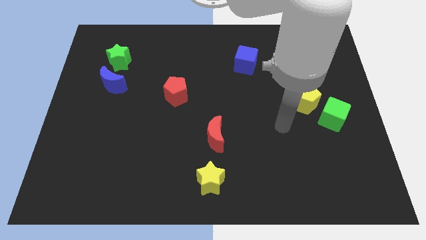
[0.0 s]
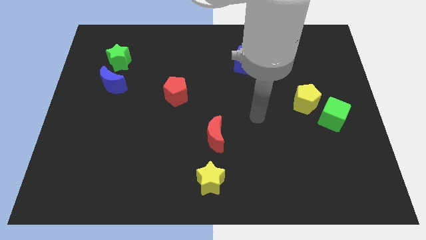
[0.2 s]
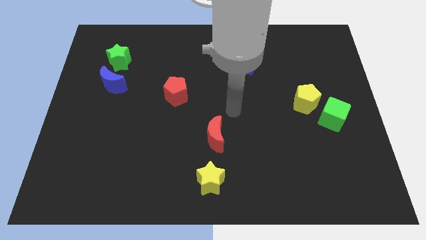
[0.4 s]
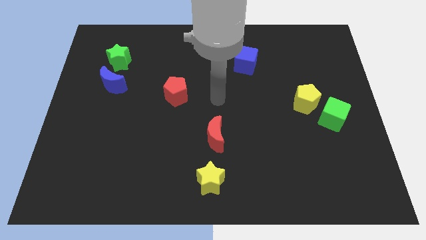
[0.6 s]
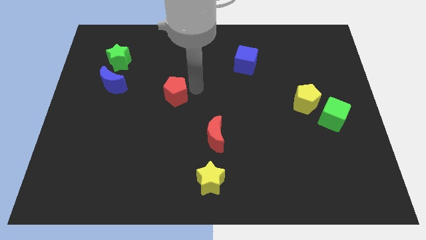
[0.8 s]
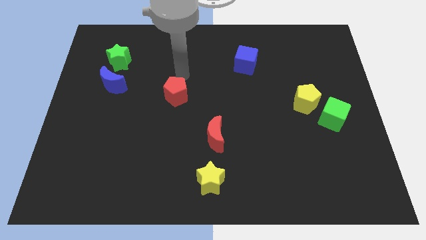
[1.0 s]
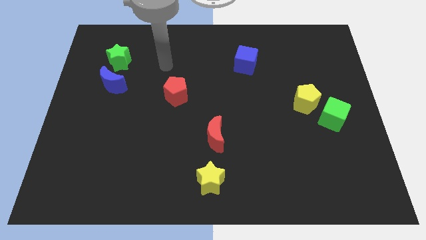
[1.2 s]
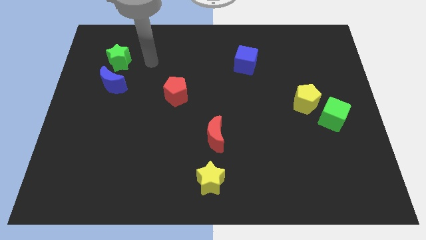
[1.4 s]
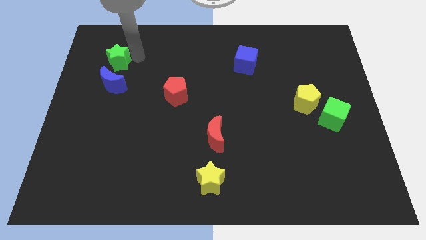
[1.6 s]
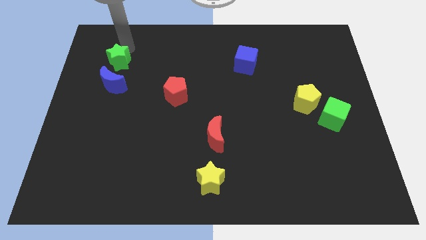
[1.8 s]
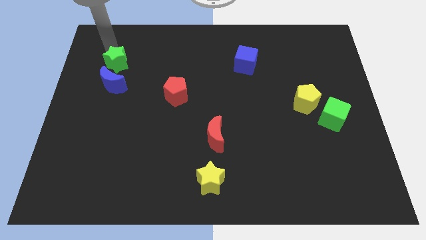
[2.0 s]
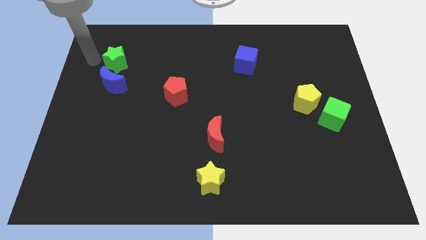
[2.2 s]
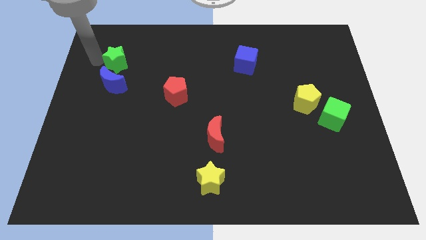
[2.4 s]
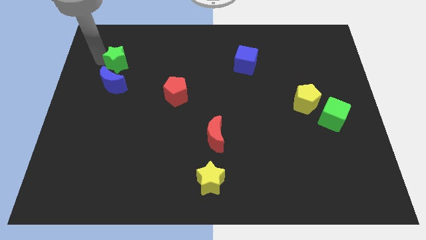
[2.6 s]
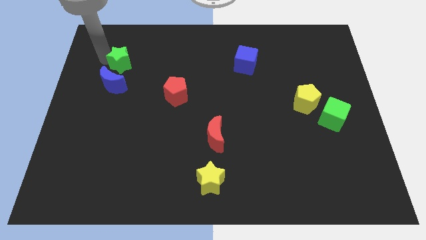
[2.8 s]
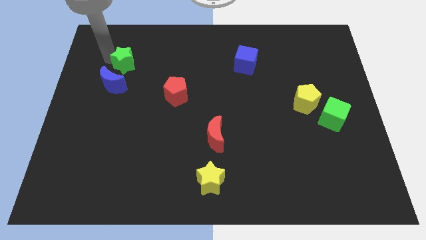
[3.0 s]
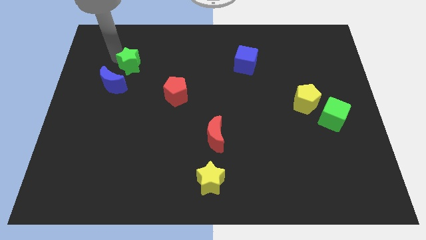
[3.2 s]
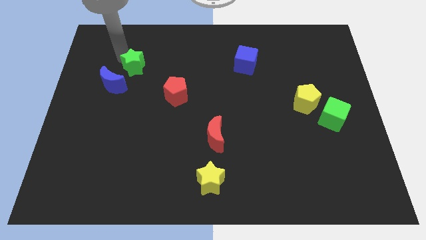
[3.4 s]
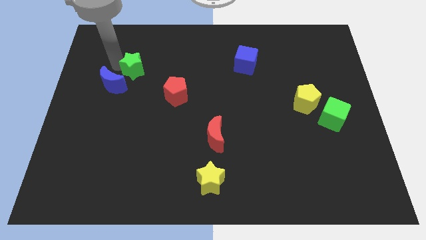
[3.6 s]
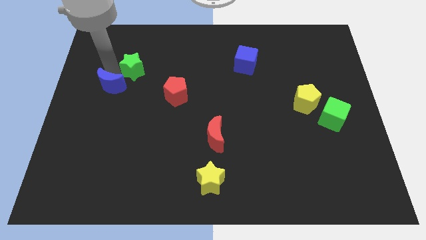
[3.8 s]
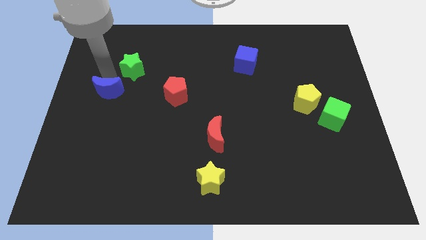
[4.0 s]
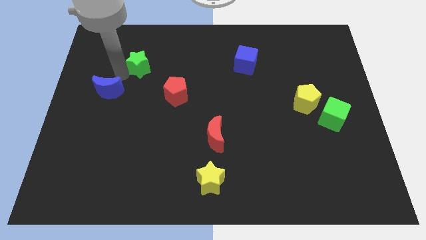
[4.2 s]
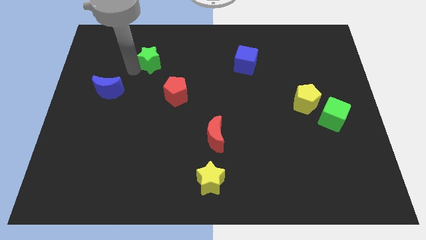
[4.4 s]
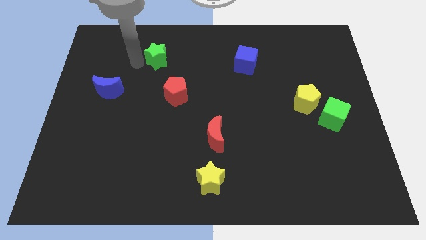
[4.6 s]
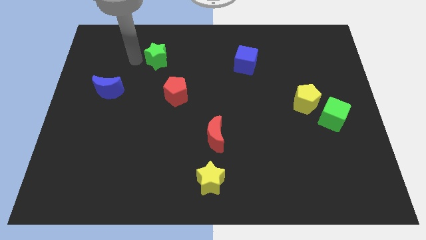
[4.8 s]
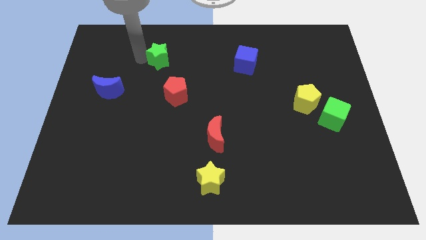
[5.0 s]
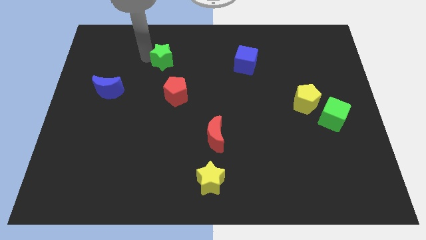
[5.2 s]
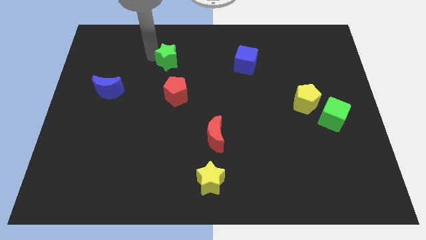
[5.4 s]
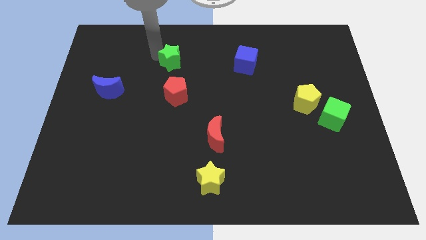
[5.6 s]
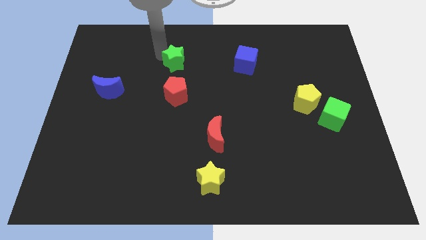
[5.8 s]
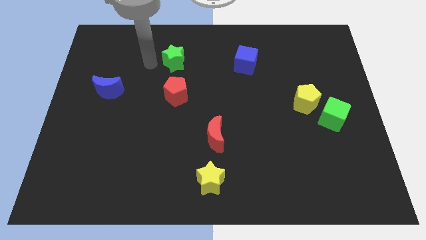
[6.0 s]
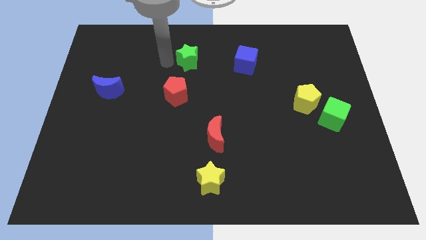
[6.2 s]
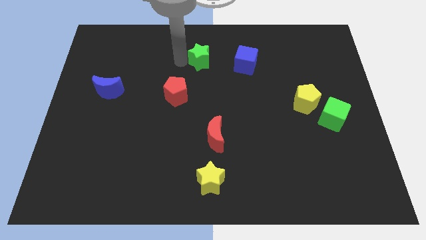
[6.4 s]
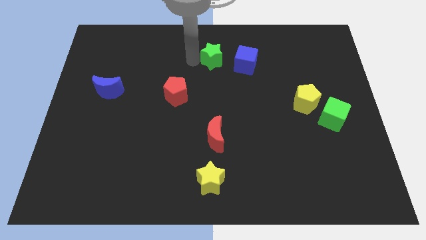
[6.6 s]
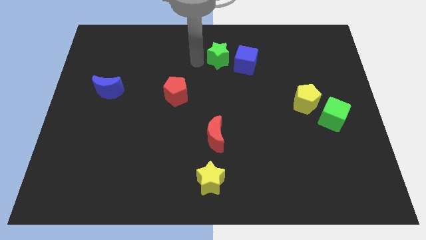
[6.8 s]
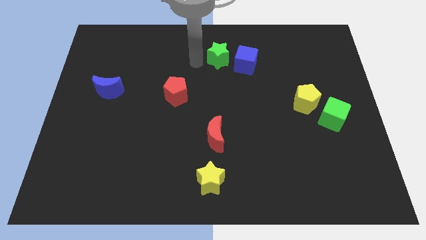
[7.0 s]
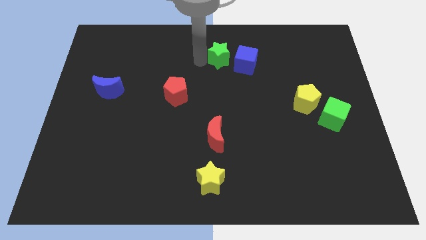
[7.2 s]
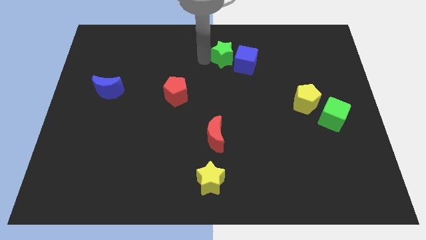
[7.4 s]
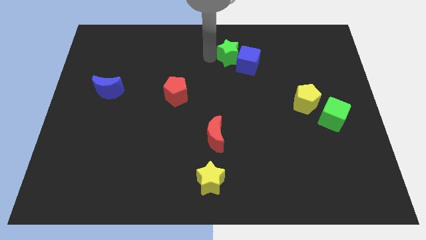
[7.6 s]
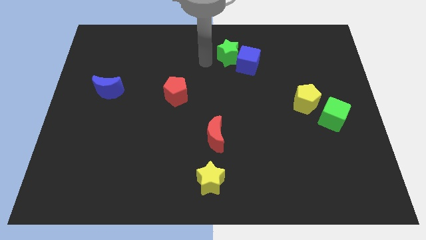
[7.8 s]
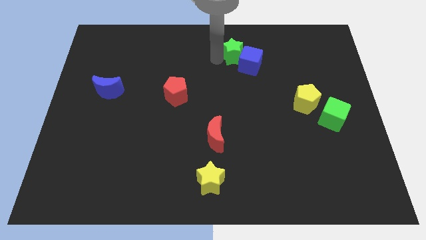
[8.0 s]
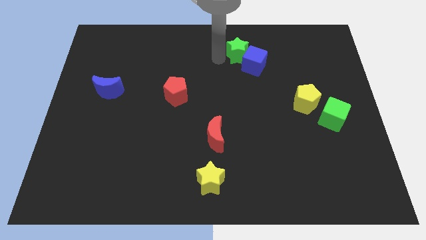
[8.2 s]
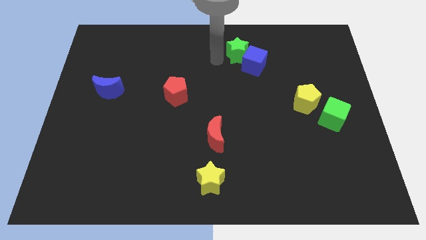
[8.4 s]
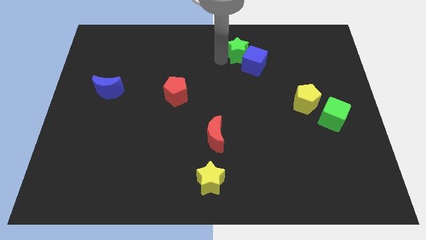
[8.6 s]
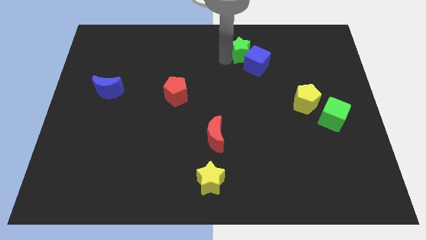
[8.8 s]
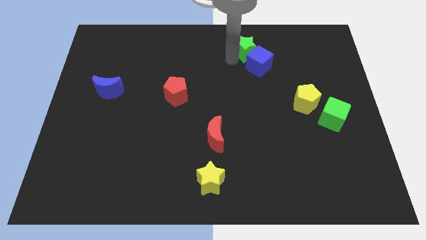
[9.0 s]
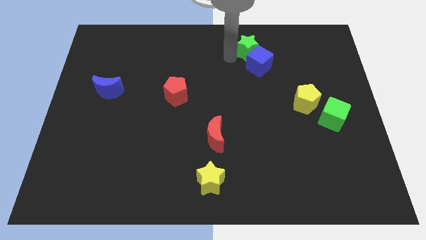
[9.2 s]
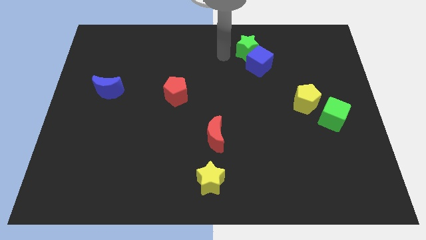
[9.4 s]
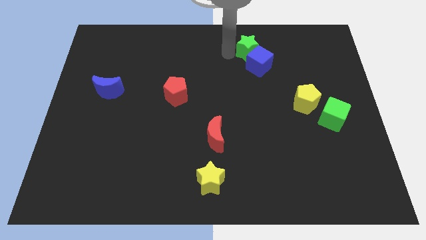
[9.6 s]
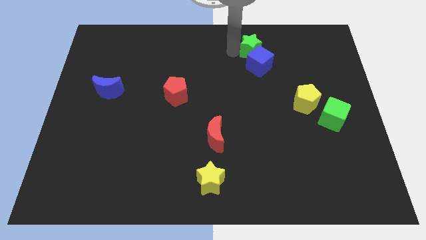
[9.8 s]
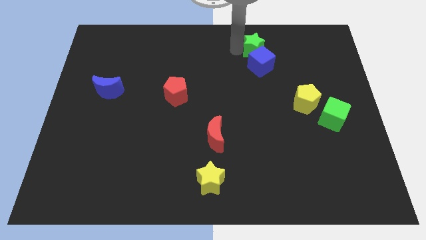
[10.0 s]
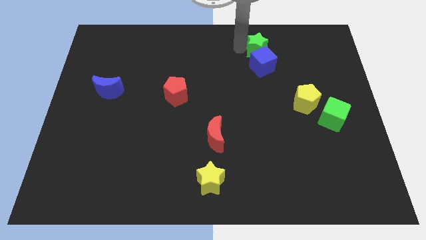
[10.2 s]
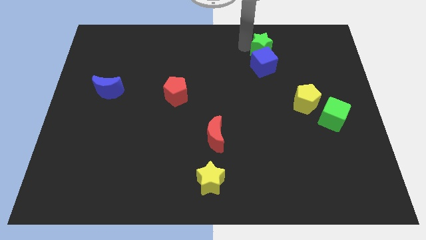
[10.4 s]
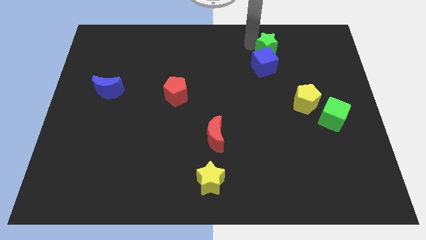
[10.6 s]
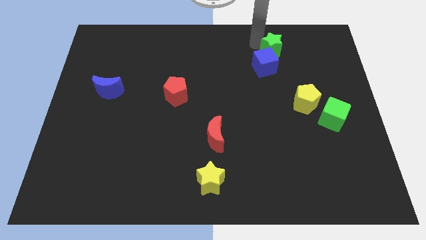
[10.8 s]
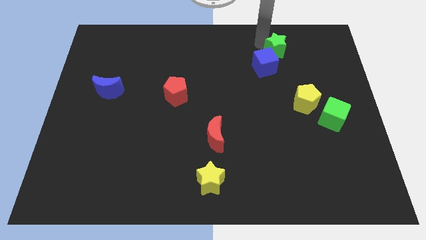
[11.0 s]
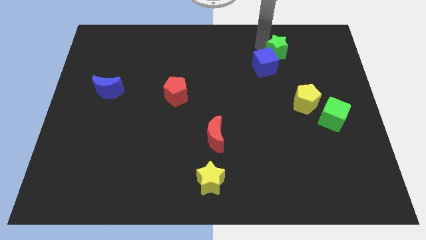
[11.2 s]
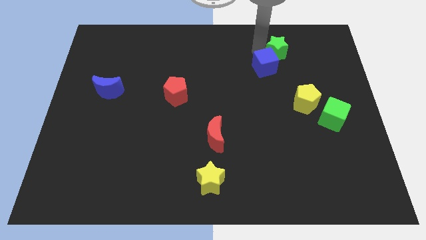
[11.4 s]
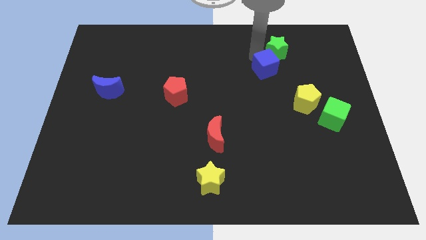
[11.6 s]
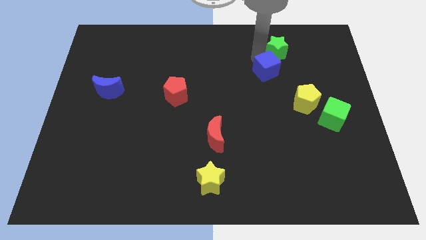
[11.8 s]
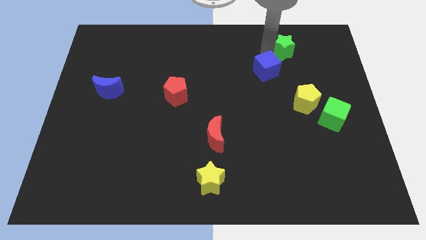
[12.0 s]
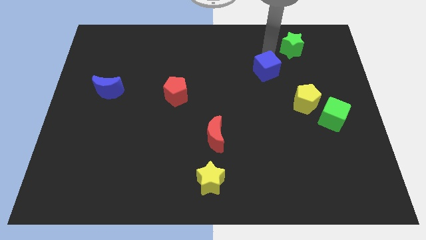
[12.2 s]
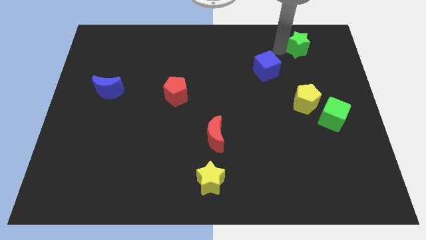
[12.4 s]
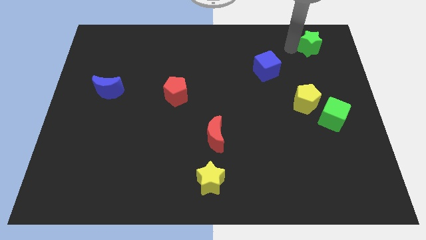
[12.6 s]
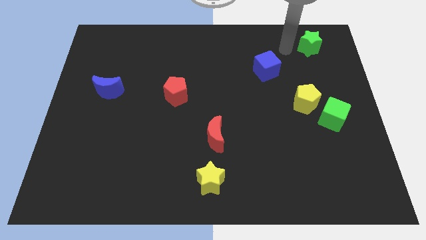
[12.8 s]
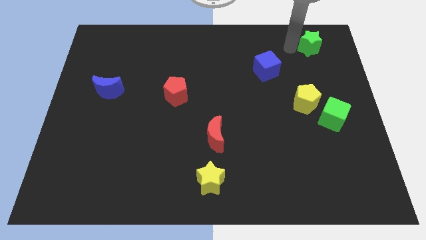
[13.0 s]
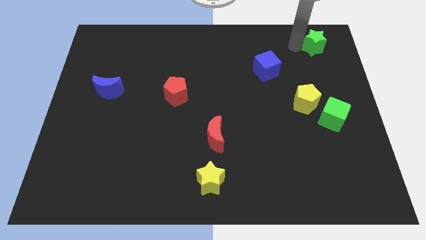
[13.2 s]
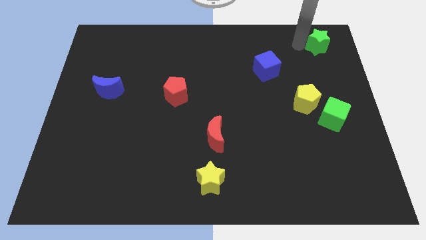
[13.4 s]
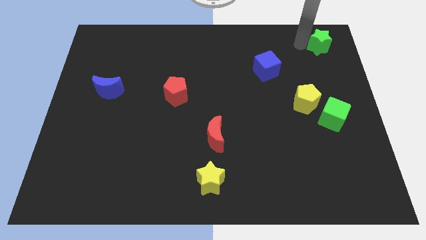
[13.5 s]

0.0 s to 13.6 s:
move the green star to the top right
